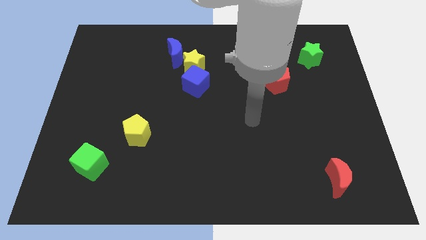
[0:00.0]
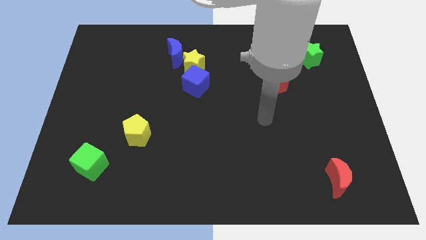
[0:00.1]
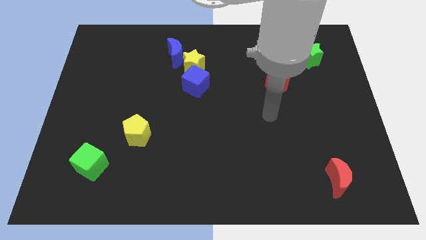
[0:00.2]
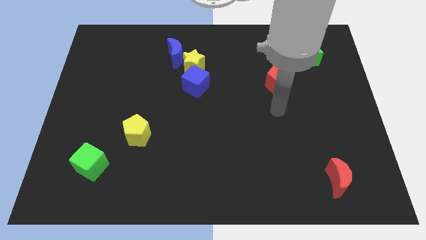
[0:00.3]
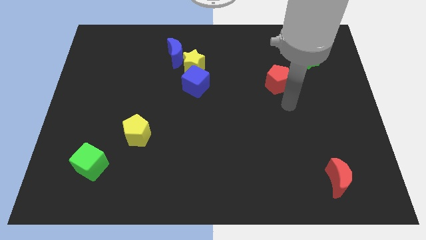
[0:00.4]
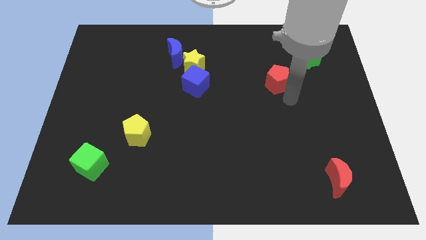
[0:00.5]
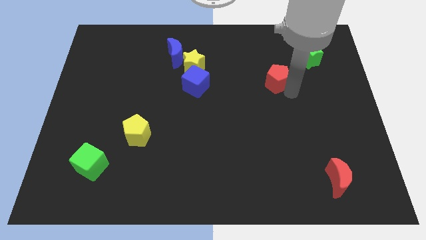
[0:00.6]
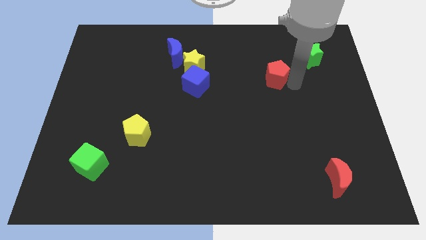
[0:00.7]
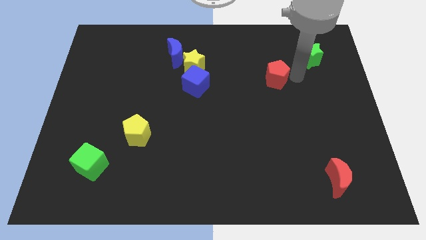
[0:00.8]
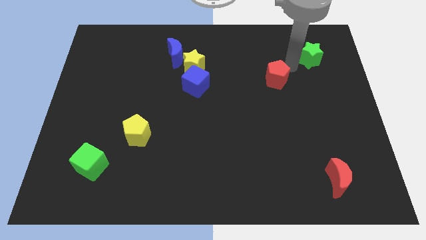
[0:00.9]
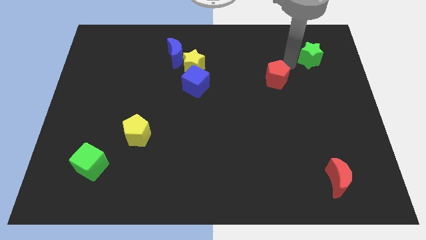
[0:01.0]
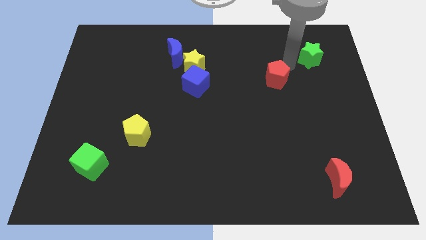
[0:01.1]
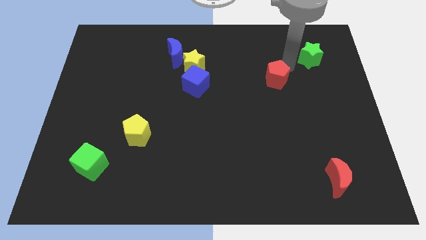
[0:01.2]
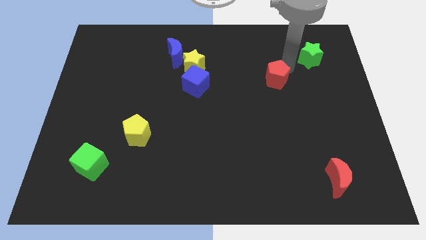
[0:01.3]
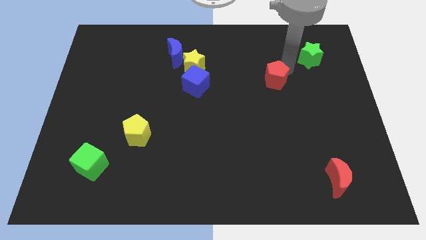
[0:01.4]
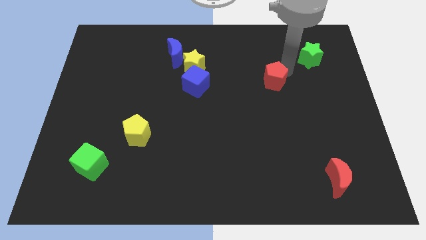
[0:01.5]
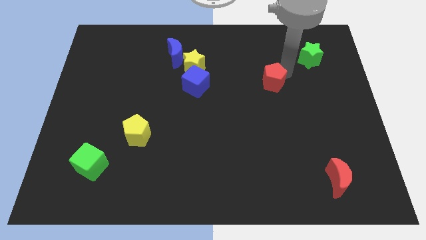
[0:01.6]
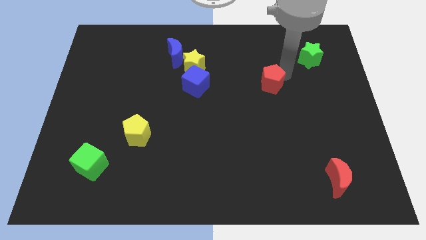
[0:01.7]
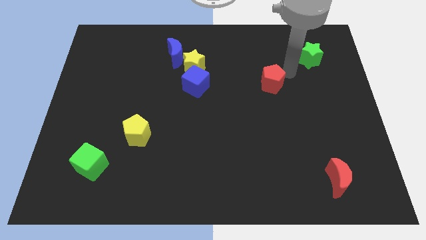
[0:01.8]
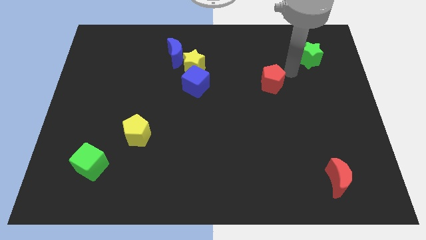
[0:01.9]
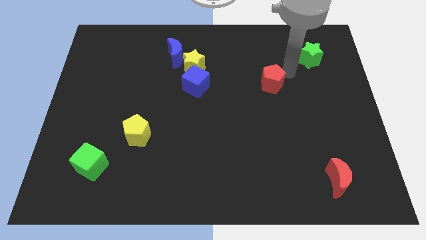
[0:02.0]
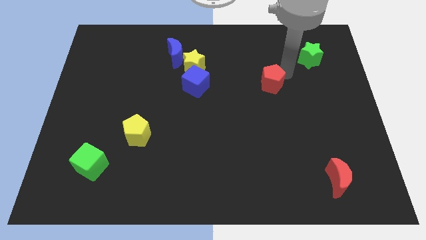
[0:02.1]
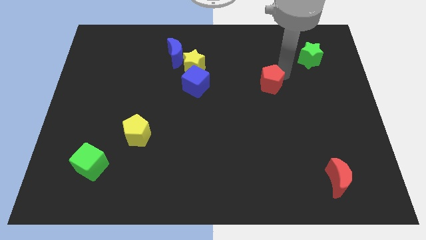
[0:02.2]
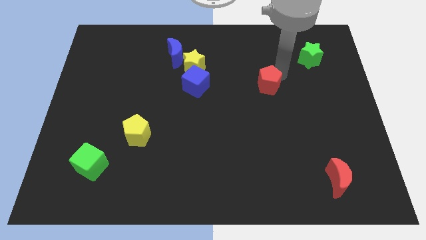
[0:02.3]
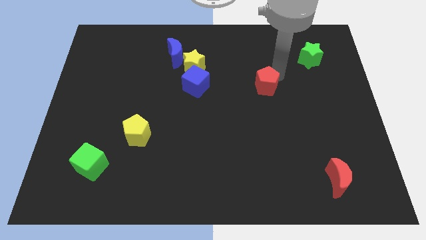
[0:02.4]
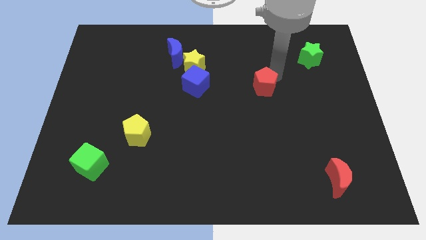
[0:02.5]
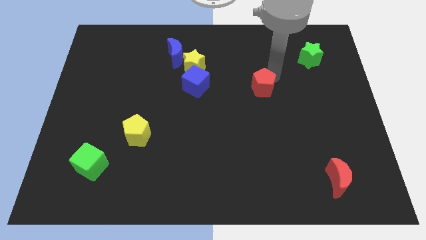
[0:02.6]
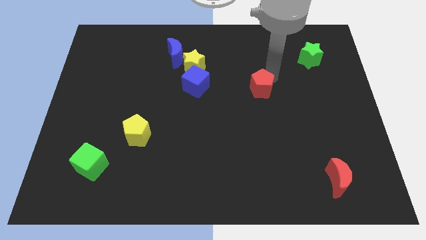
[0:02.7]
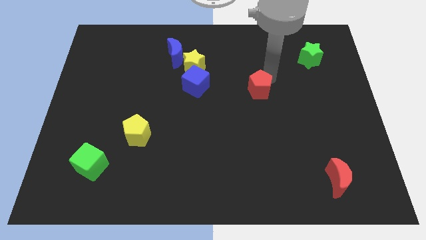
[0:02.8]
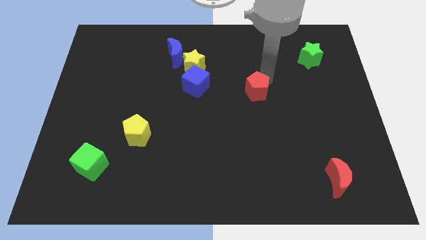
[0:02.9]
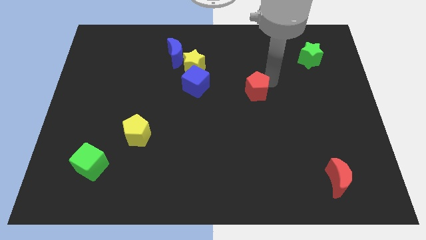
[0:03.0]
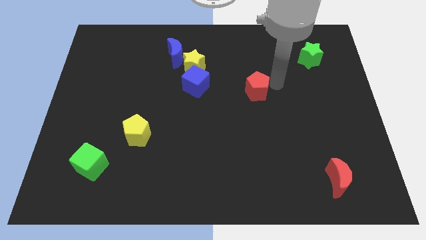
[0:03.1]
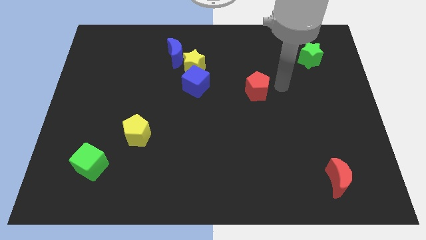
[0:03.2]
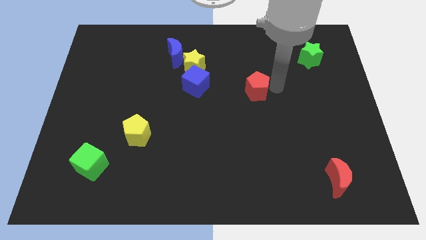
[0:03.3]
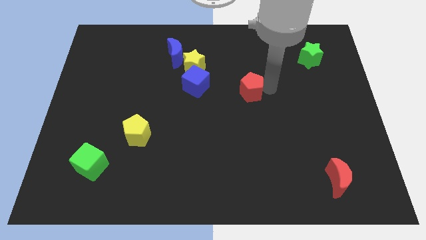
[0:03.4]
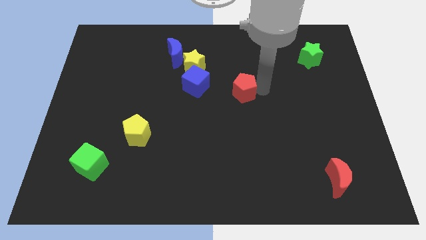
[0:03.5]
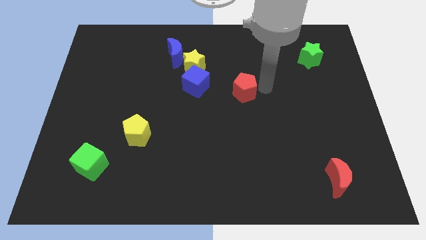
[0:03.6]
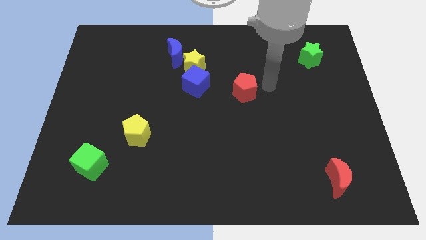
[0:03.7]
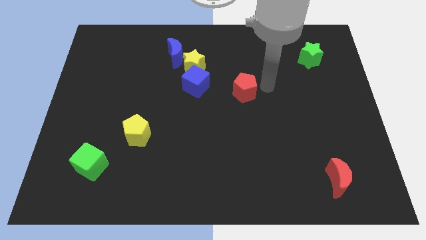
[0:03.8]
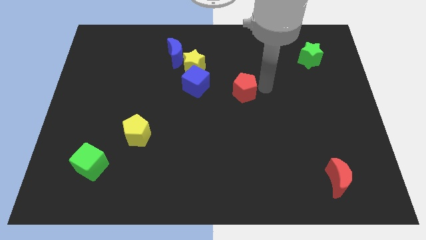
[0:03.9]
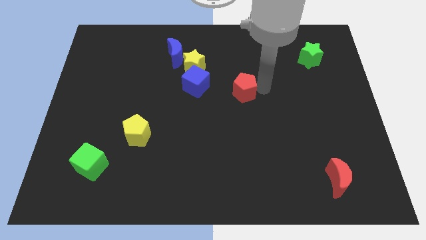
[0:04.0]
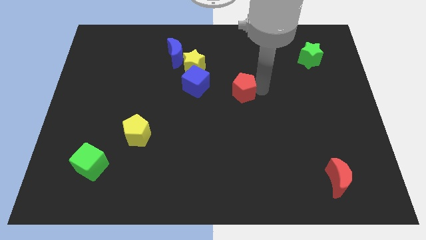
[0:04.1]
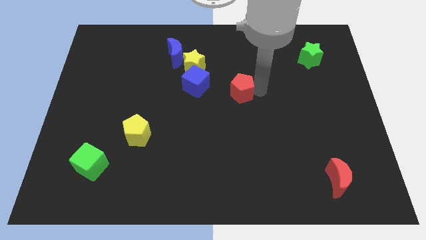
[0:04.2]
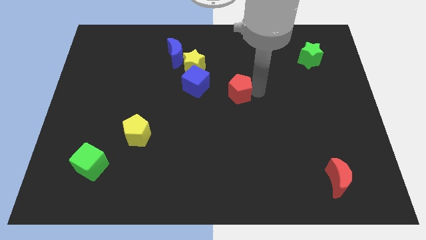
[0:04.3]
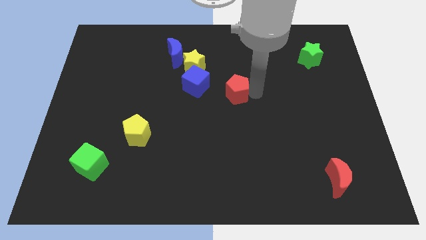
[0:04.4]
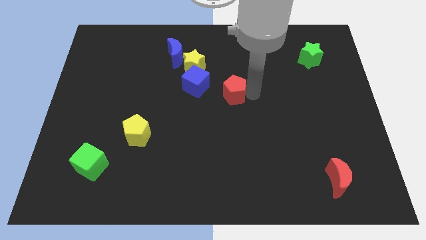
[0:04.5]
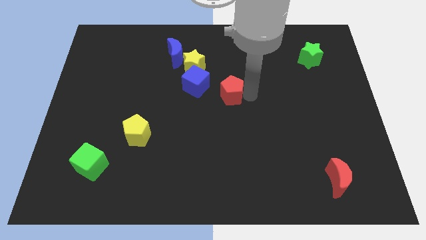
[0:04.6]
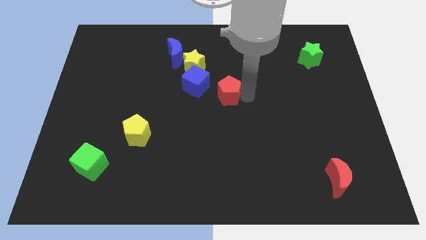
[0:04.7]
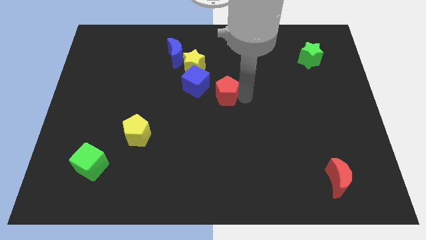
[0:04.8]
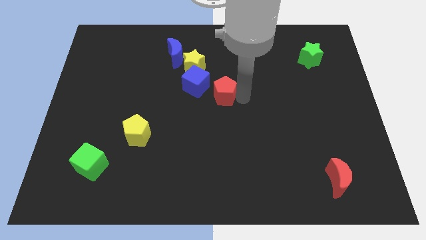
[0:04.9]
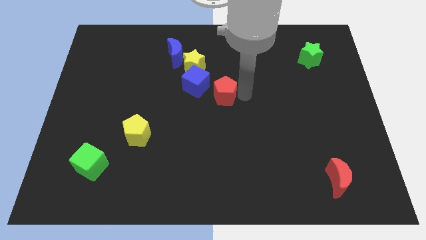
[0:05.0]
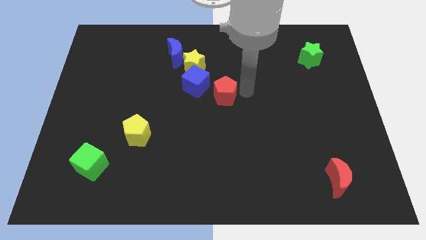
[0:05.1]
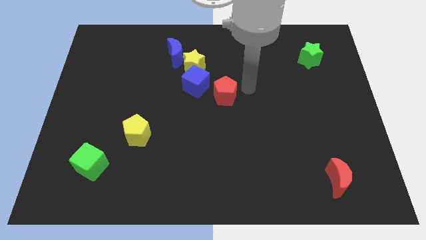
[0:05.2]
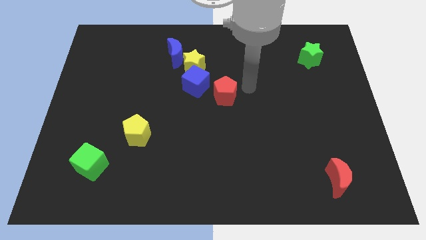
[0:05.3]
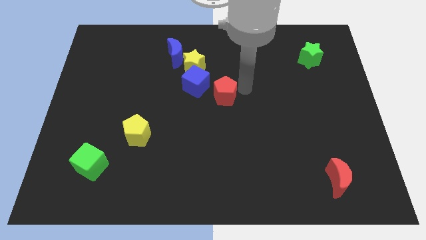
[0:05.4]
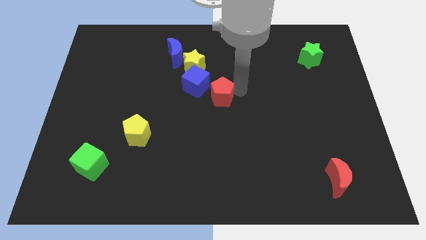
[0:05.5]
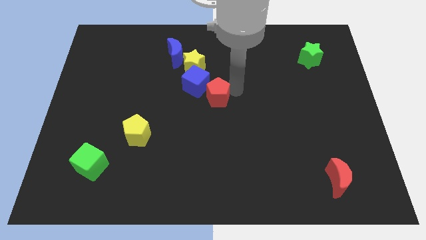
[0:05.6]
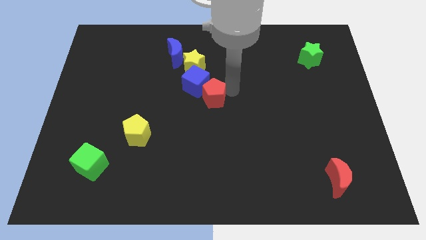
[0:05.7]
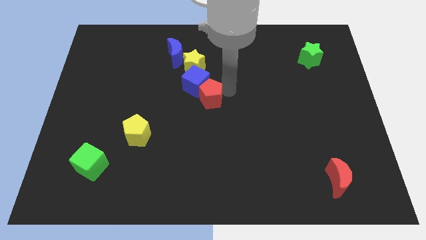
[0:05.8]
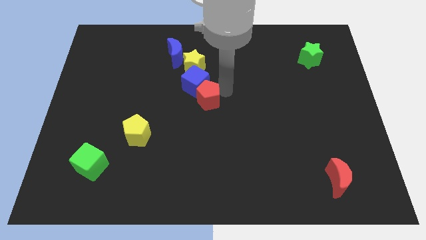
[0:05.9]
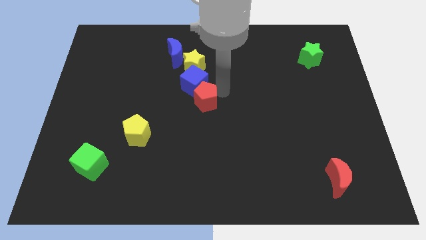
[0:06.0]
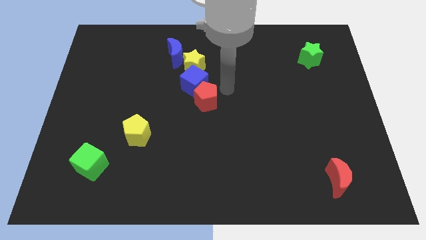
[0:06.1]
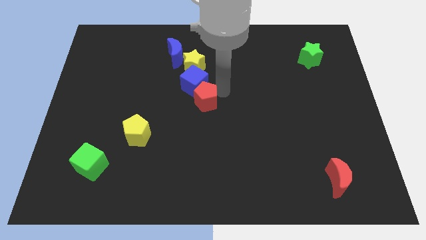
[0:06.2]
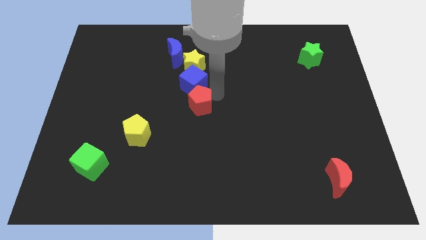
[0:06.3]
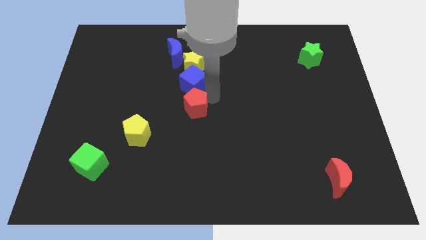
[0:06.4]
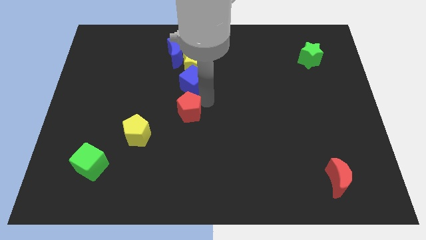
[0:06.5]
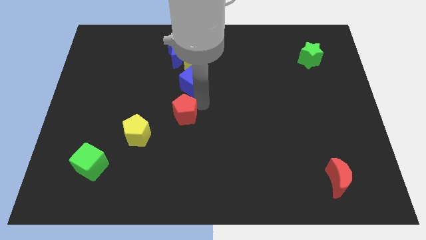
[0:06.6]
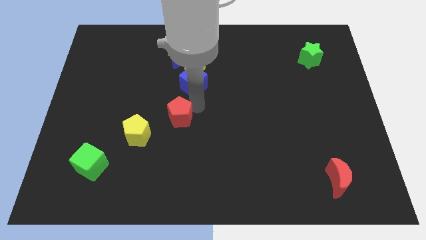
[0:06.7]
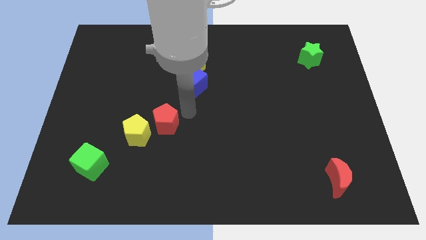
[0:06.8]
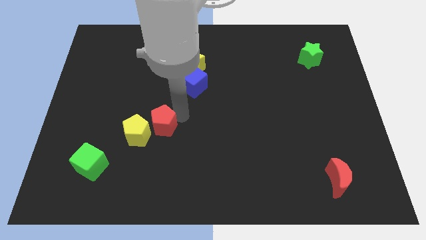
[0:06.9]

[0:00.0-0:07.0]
push the red pentagon towards the yellow pentagon
